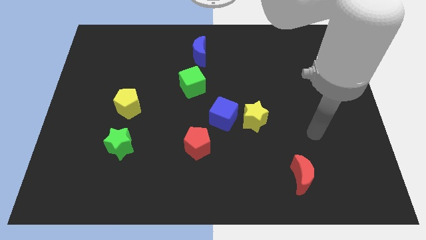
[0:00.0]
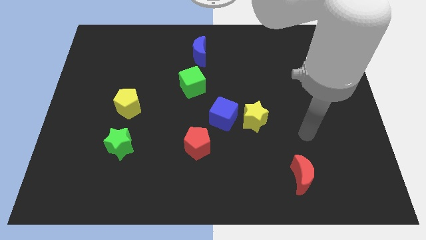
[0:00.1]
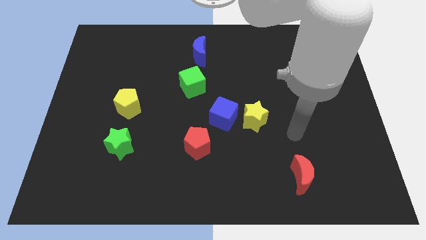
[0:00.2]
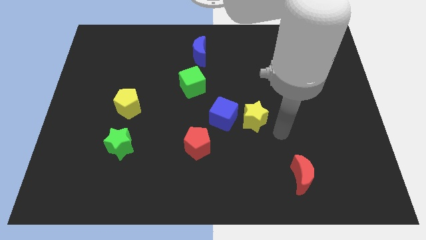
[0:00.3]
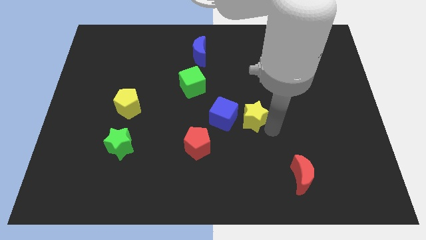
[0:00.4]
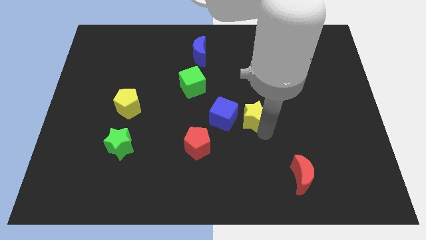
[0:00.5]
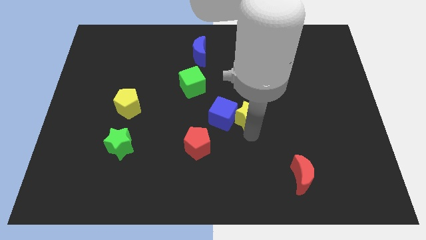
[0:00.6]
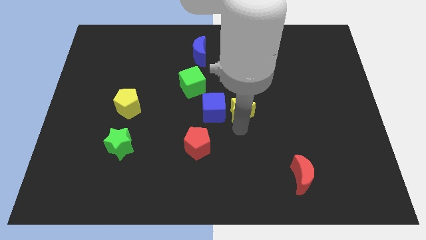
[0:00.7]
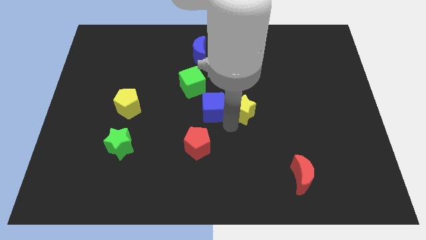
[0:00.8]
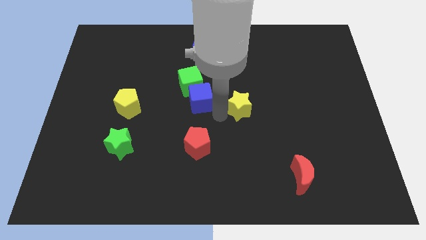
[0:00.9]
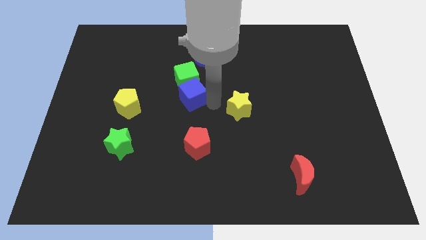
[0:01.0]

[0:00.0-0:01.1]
pull the yellow star apart from the blue cube

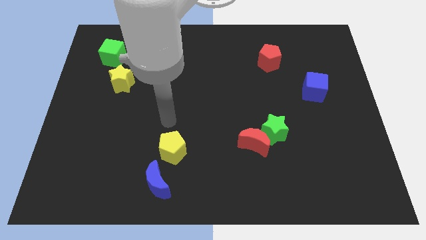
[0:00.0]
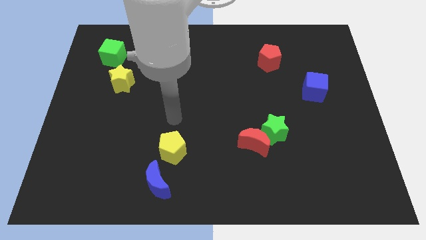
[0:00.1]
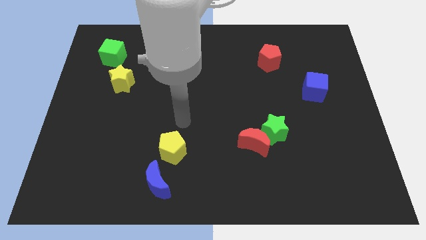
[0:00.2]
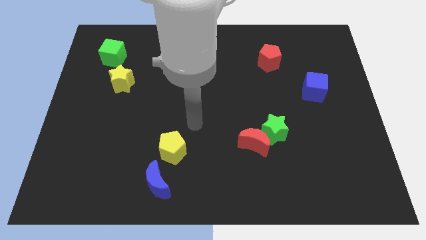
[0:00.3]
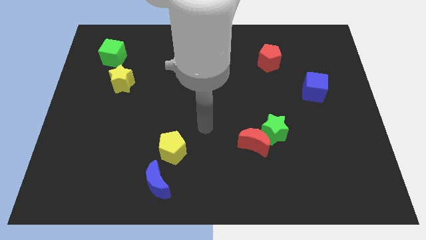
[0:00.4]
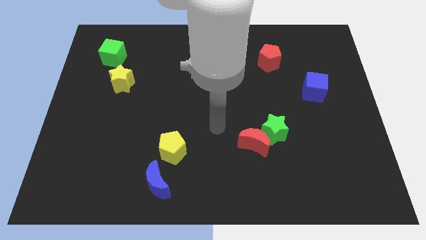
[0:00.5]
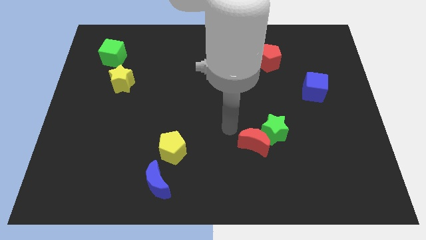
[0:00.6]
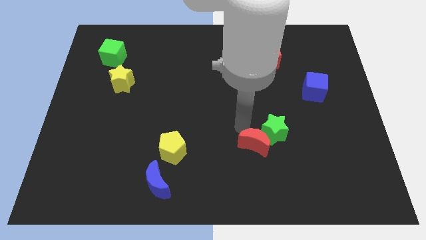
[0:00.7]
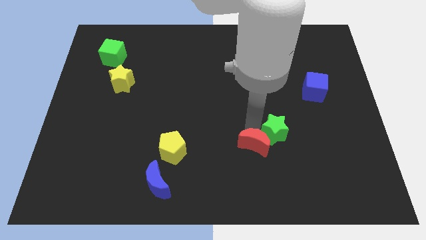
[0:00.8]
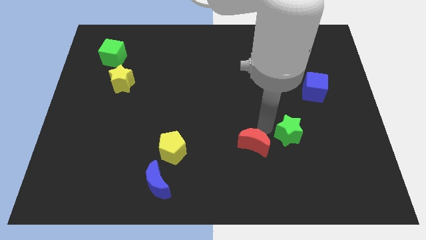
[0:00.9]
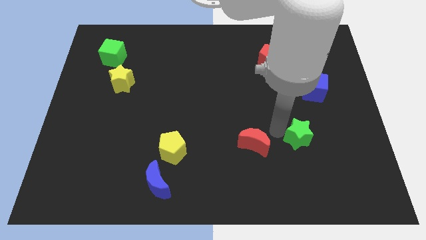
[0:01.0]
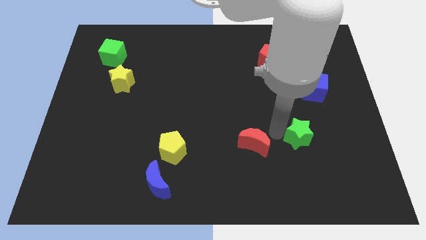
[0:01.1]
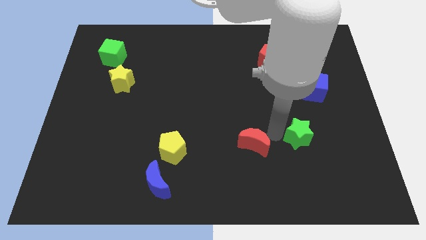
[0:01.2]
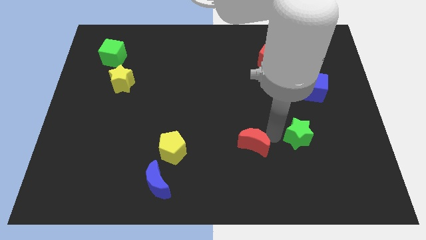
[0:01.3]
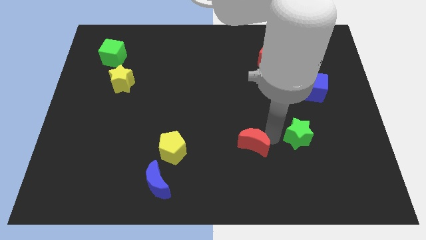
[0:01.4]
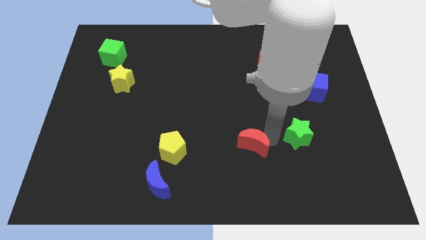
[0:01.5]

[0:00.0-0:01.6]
move the red moon away from the green star

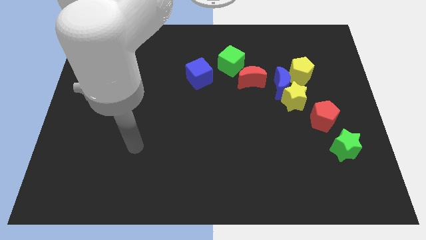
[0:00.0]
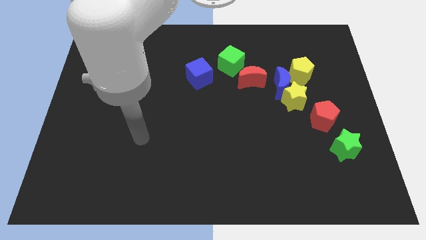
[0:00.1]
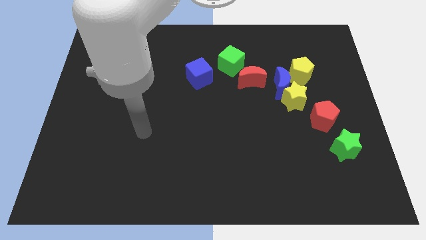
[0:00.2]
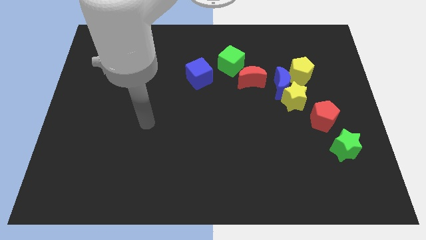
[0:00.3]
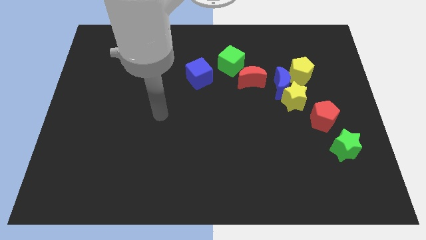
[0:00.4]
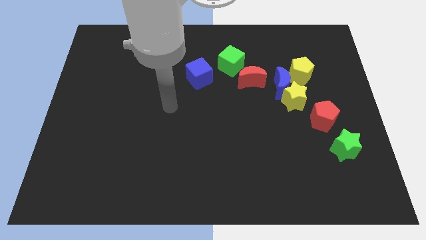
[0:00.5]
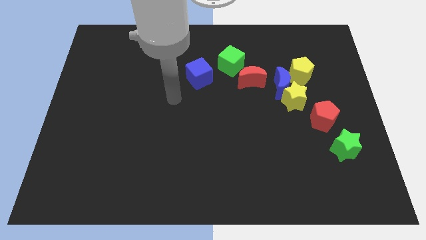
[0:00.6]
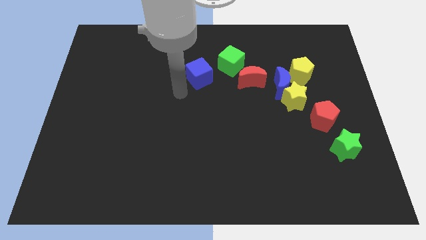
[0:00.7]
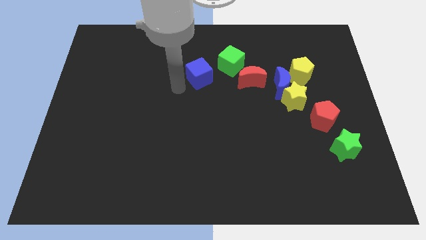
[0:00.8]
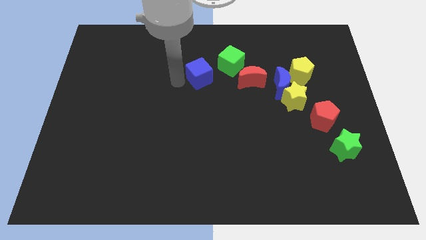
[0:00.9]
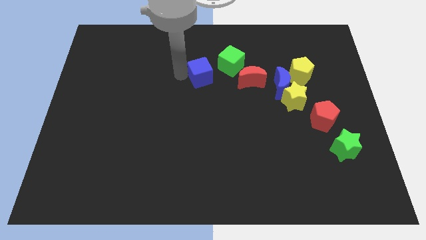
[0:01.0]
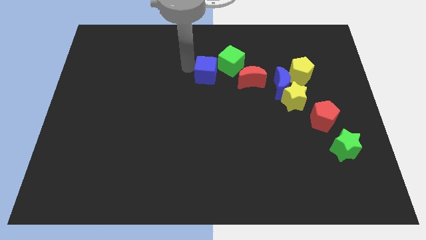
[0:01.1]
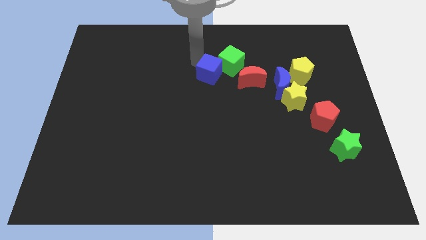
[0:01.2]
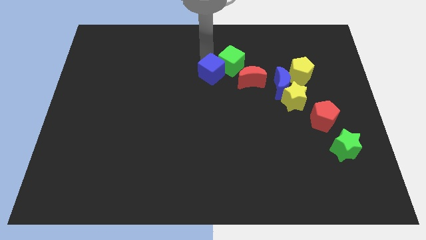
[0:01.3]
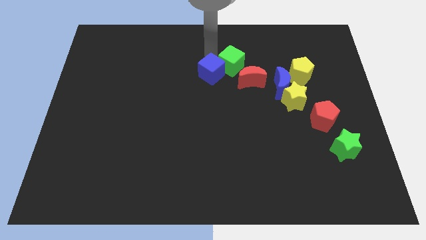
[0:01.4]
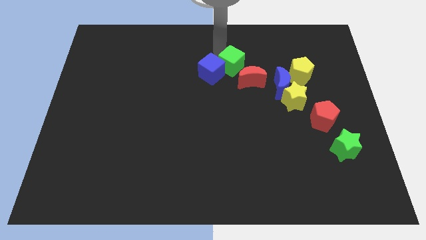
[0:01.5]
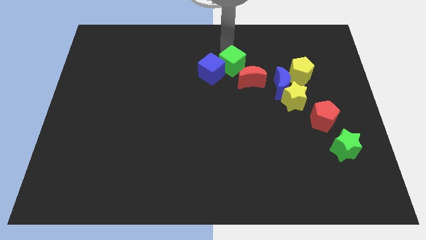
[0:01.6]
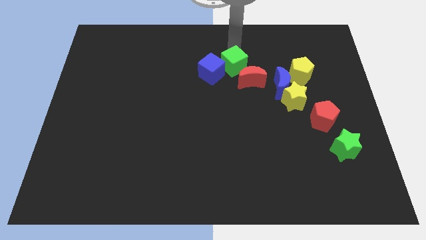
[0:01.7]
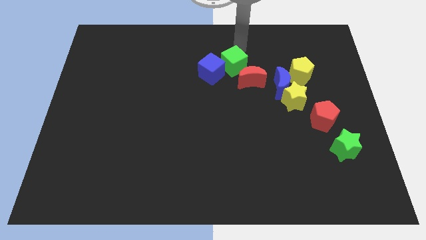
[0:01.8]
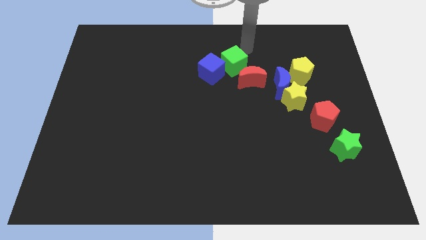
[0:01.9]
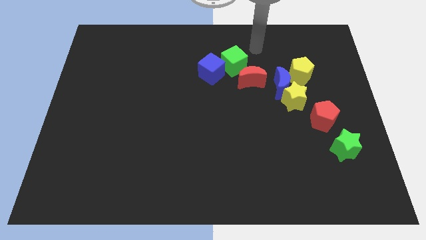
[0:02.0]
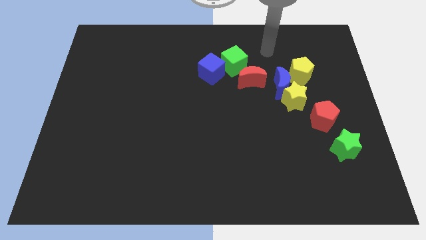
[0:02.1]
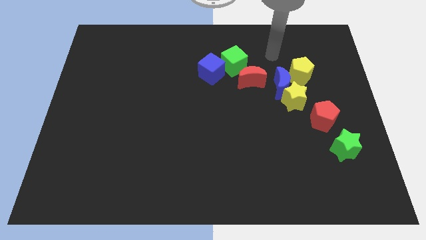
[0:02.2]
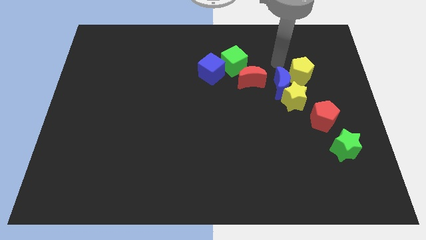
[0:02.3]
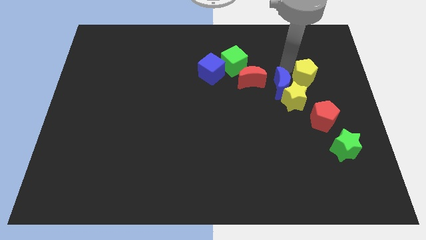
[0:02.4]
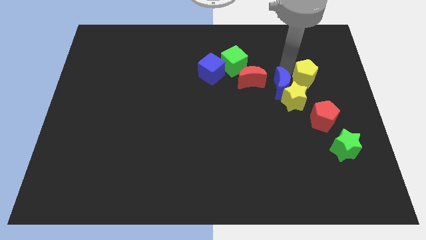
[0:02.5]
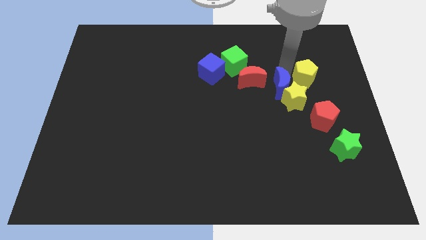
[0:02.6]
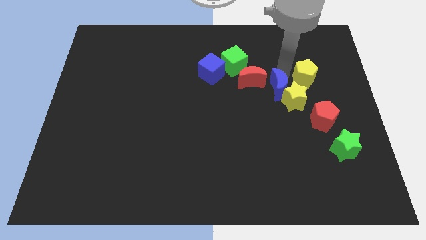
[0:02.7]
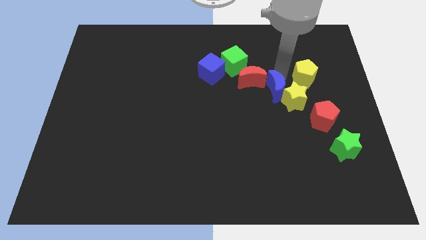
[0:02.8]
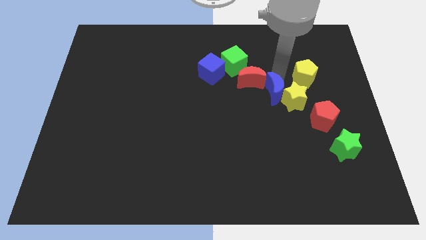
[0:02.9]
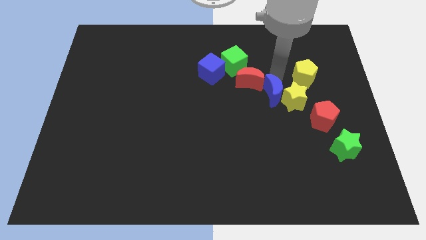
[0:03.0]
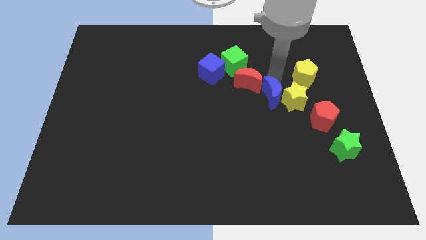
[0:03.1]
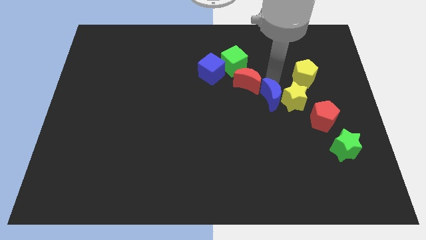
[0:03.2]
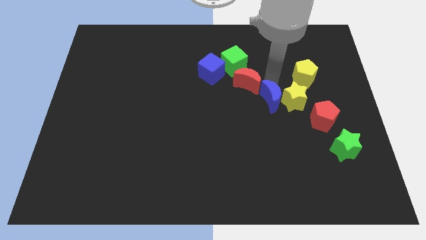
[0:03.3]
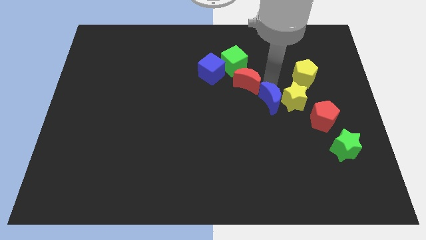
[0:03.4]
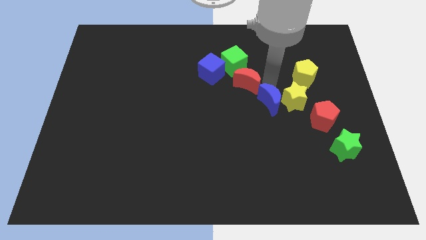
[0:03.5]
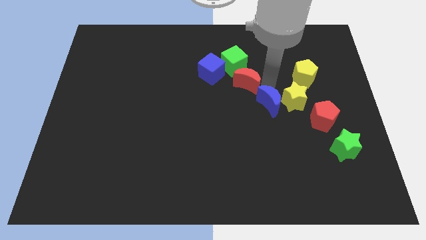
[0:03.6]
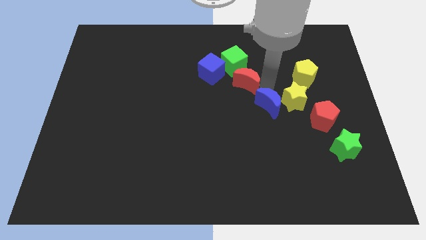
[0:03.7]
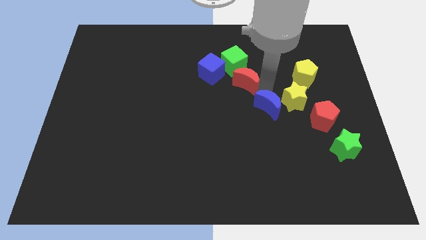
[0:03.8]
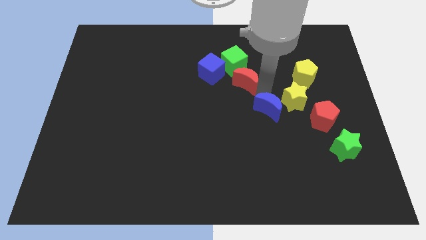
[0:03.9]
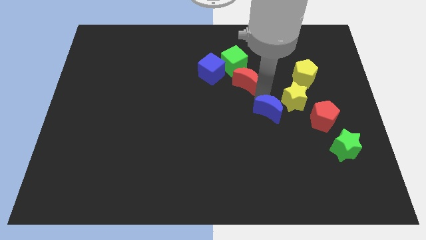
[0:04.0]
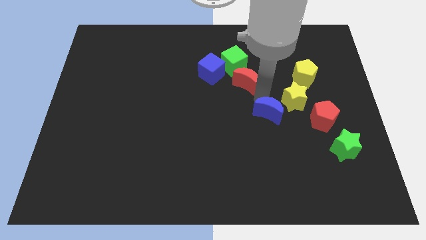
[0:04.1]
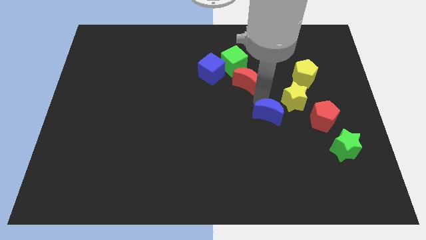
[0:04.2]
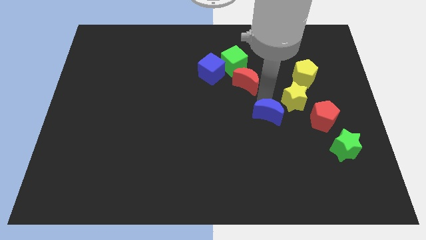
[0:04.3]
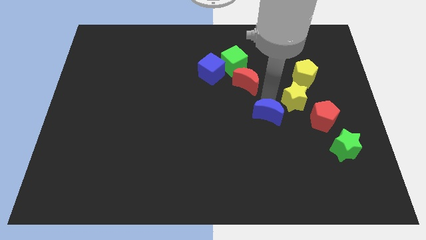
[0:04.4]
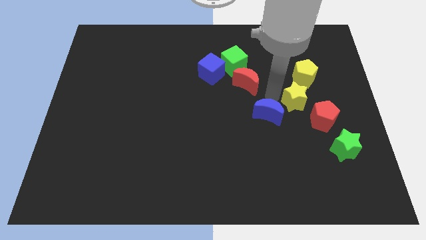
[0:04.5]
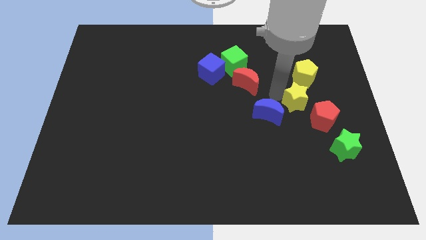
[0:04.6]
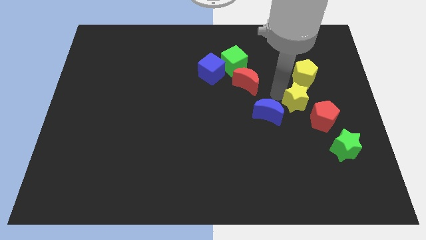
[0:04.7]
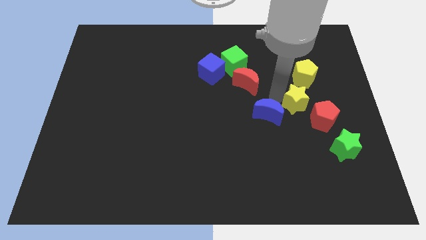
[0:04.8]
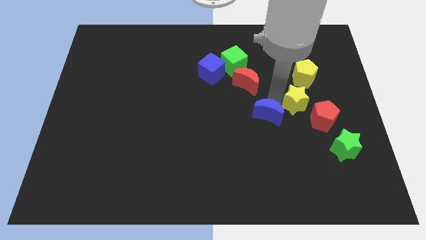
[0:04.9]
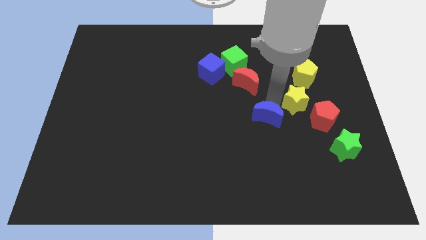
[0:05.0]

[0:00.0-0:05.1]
move the blue moon away from the yellow star, yellow pentagon, and red moon

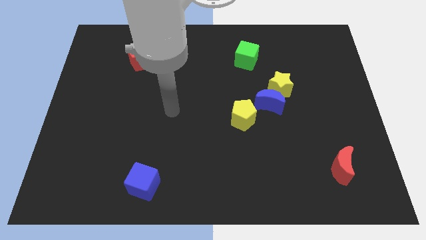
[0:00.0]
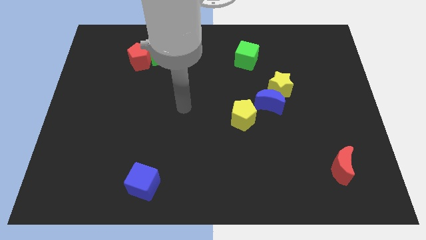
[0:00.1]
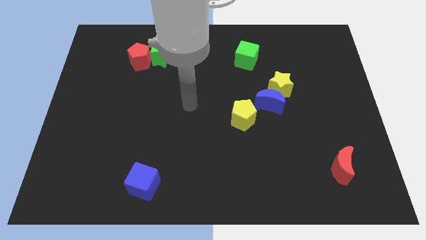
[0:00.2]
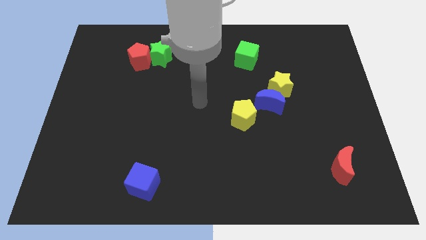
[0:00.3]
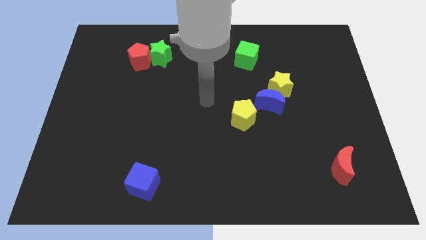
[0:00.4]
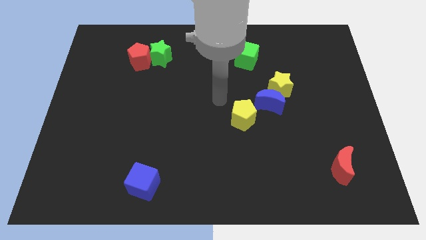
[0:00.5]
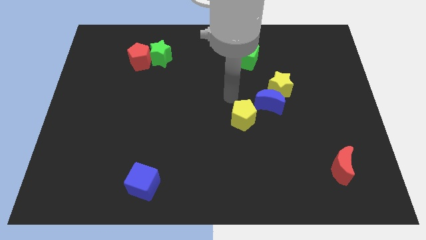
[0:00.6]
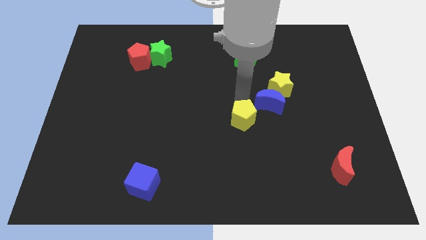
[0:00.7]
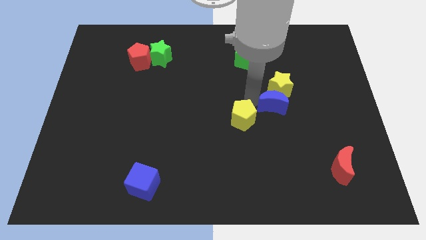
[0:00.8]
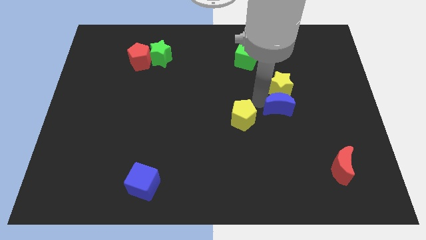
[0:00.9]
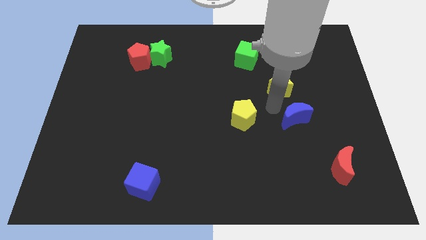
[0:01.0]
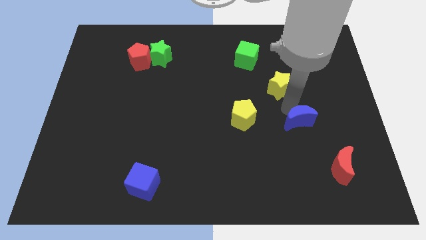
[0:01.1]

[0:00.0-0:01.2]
move the yellow star away from the blue moon

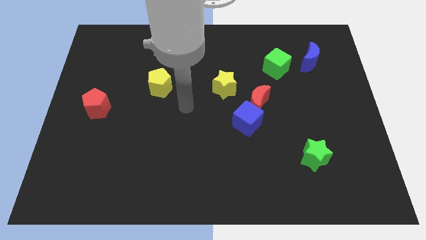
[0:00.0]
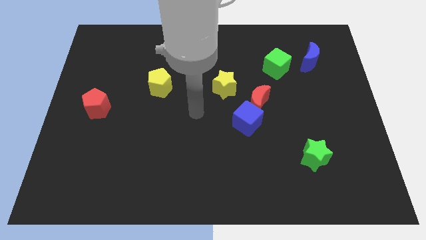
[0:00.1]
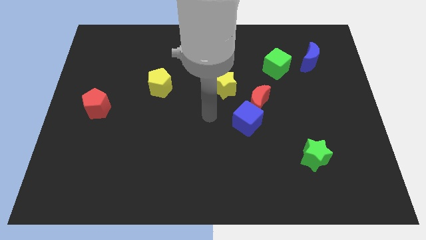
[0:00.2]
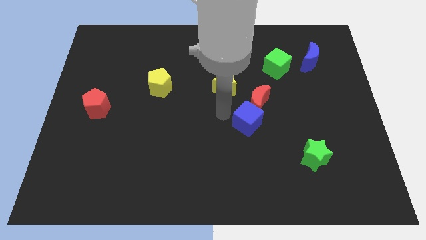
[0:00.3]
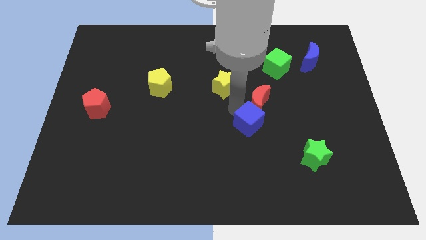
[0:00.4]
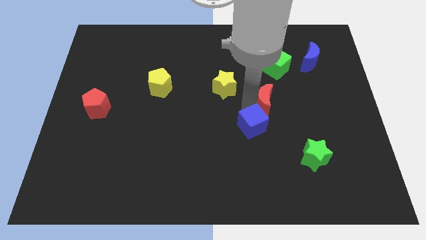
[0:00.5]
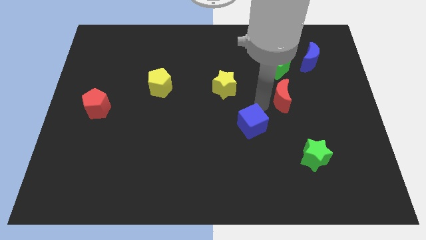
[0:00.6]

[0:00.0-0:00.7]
pull the blue cube apart from the red moon
